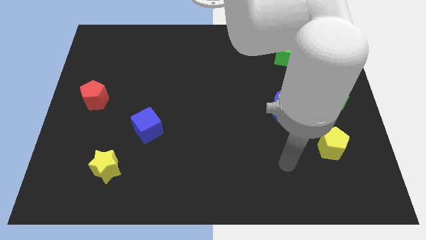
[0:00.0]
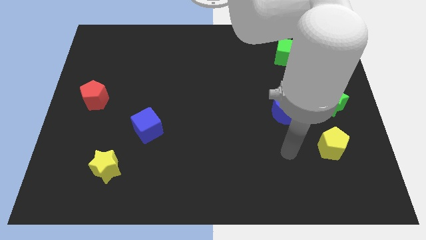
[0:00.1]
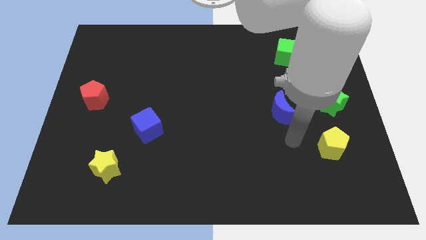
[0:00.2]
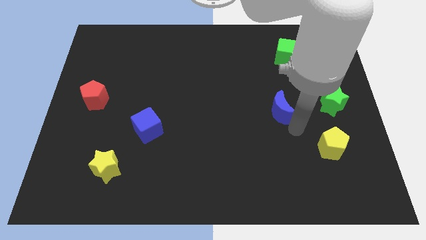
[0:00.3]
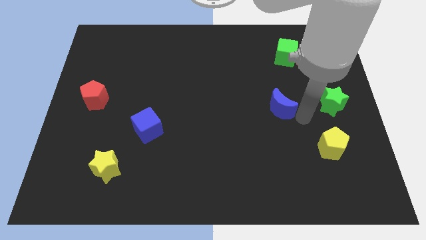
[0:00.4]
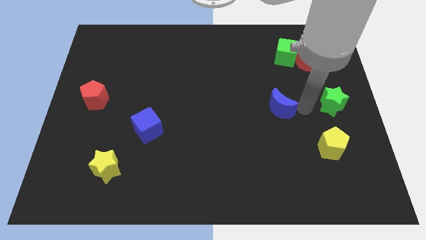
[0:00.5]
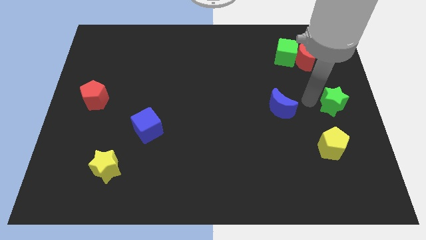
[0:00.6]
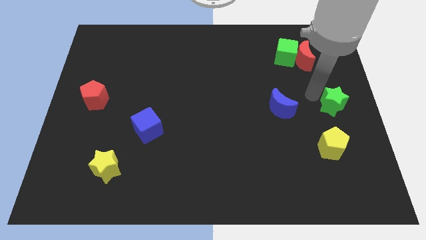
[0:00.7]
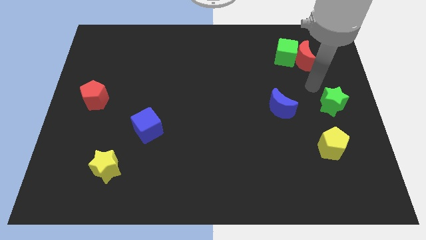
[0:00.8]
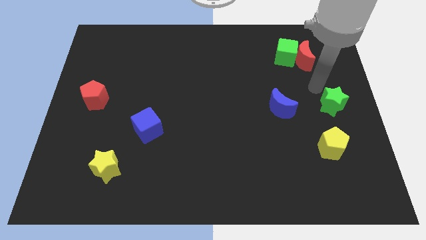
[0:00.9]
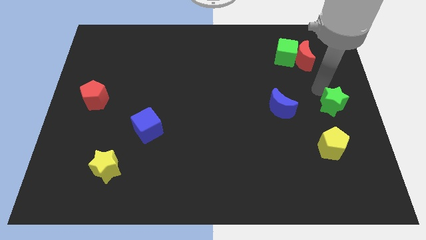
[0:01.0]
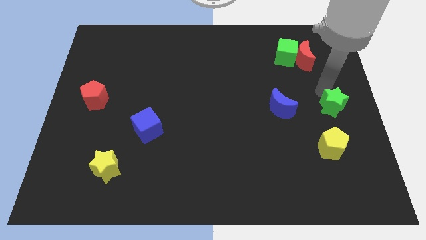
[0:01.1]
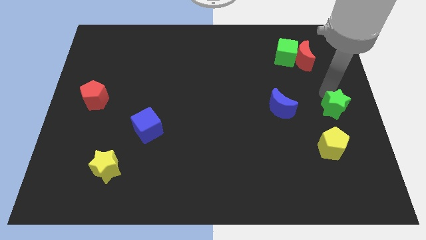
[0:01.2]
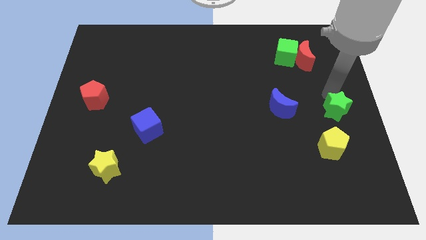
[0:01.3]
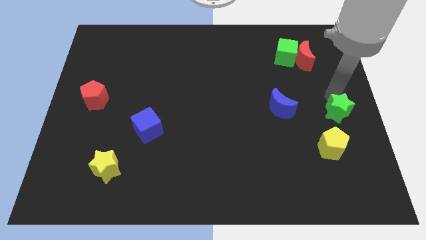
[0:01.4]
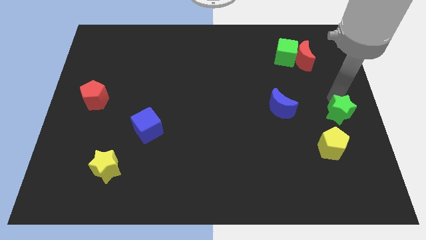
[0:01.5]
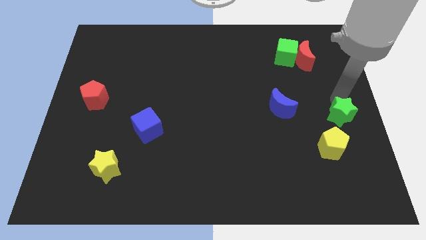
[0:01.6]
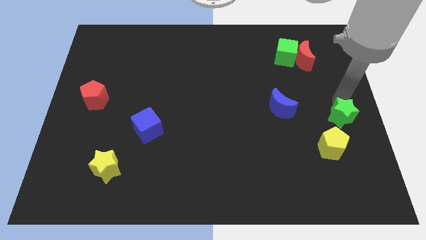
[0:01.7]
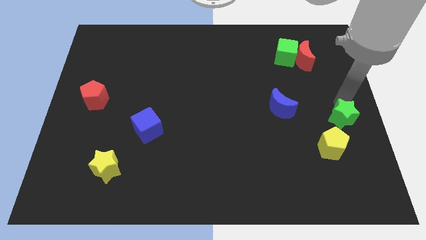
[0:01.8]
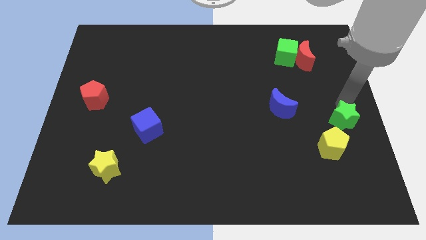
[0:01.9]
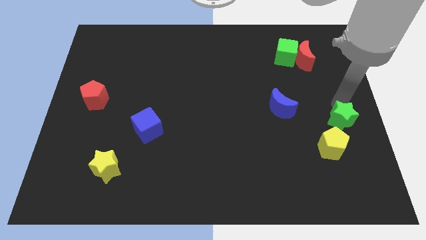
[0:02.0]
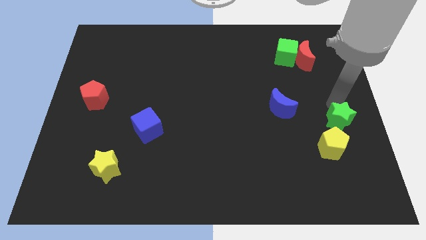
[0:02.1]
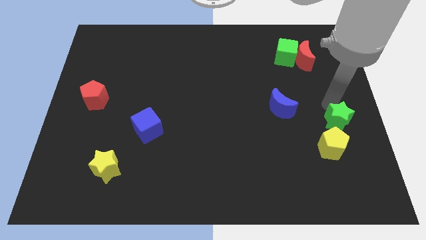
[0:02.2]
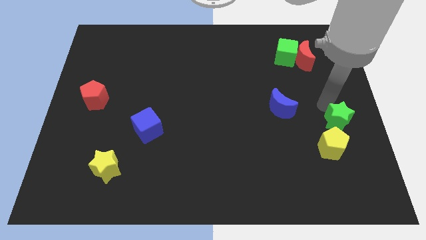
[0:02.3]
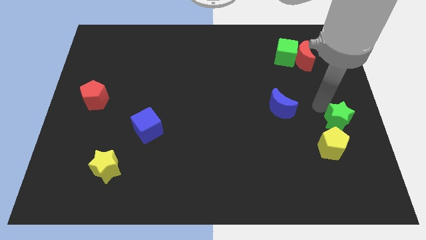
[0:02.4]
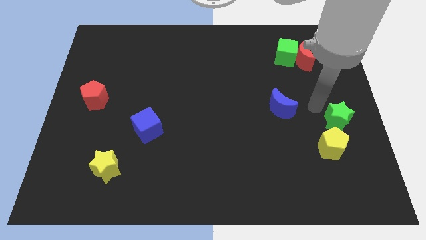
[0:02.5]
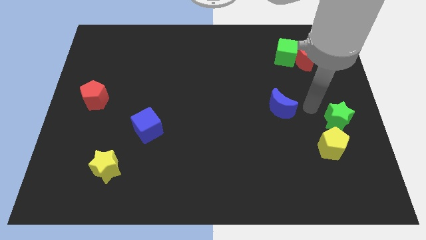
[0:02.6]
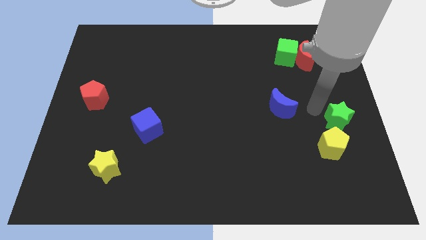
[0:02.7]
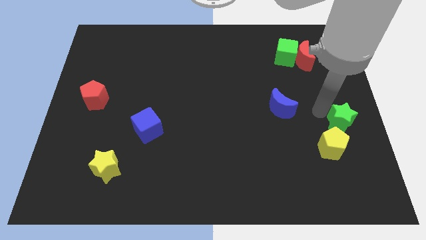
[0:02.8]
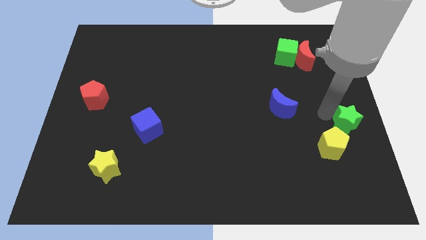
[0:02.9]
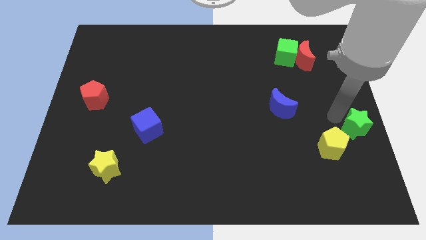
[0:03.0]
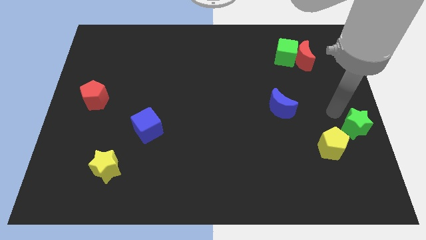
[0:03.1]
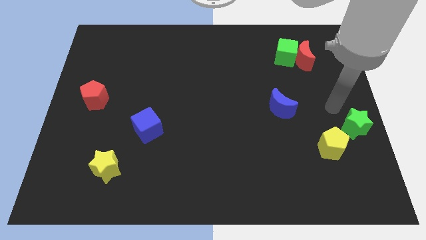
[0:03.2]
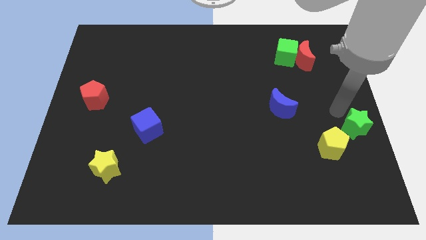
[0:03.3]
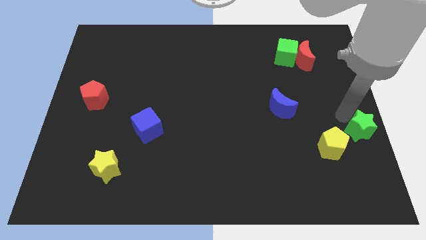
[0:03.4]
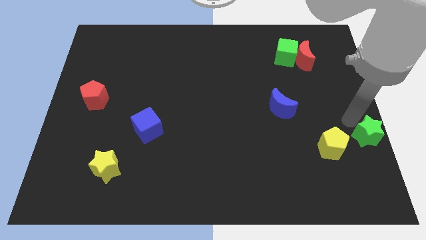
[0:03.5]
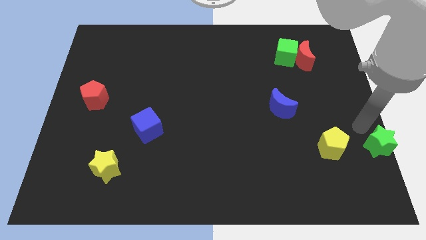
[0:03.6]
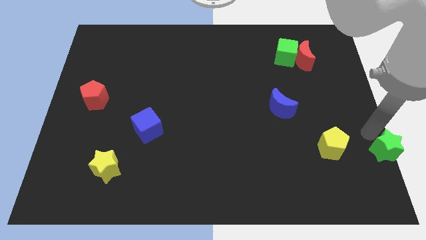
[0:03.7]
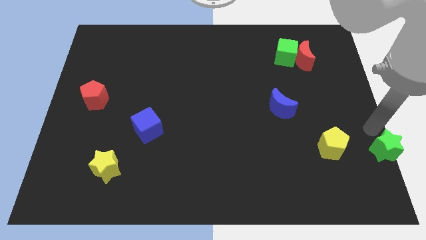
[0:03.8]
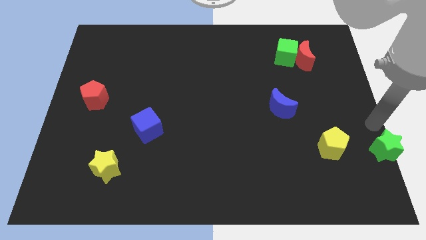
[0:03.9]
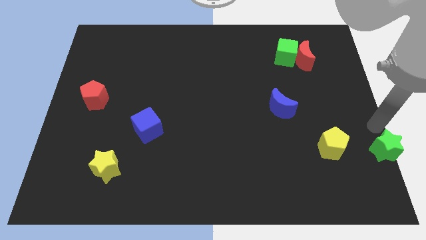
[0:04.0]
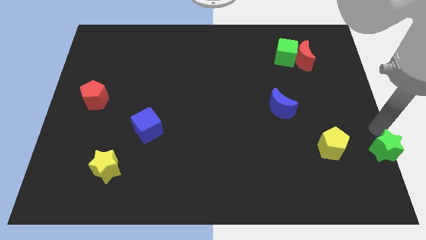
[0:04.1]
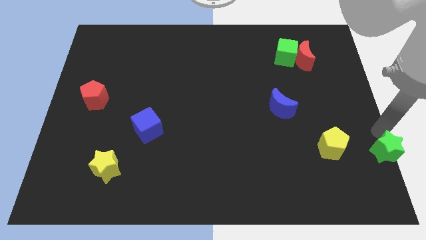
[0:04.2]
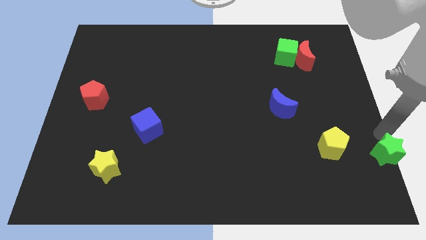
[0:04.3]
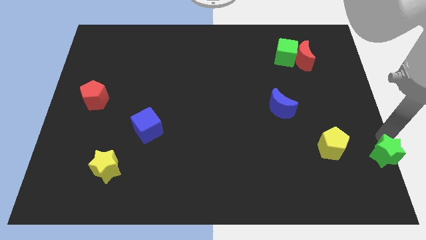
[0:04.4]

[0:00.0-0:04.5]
put the green star to the bottom right of the board

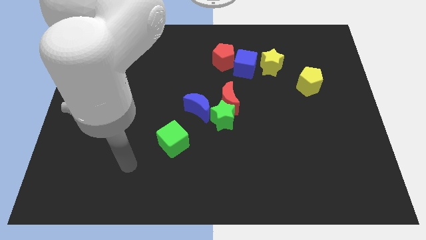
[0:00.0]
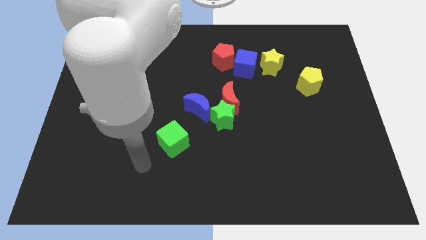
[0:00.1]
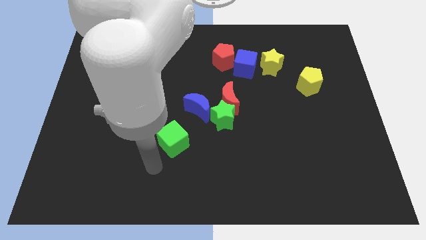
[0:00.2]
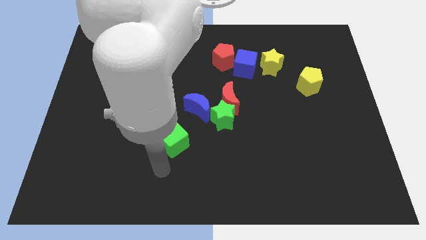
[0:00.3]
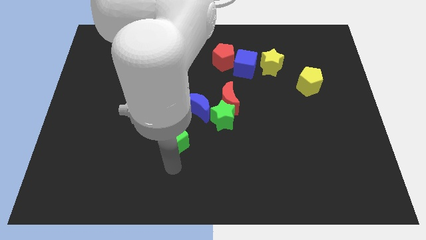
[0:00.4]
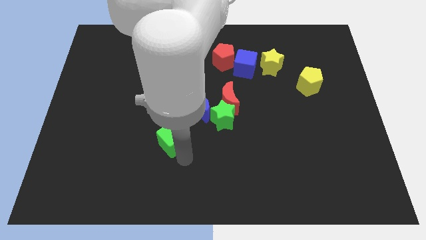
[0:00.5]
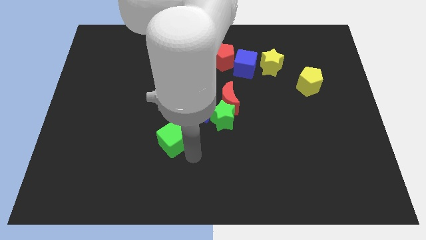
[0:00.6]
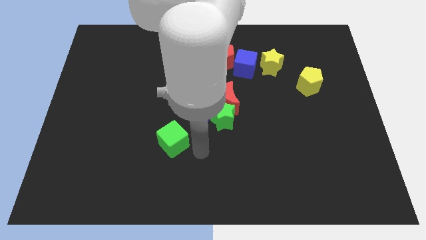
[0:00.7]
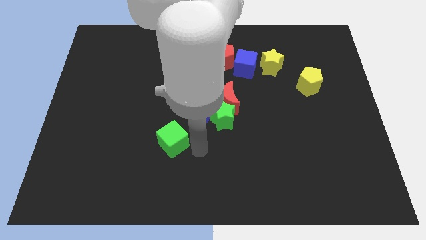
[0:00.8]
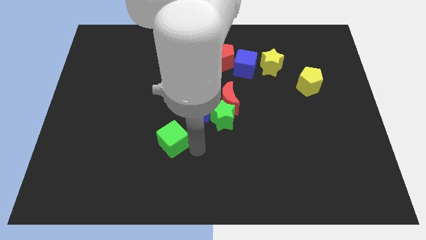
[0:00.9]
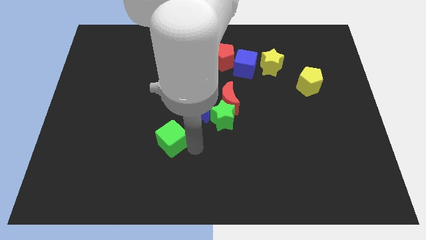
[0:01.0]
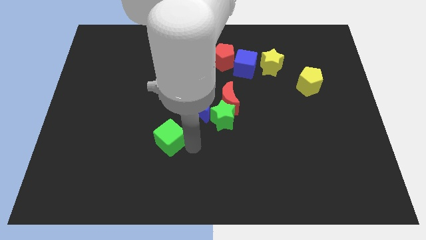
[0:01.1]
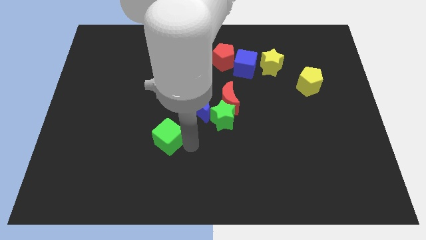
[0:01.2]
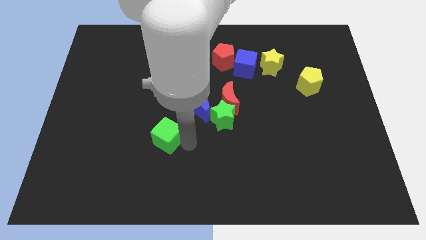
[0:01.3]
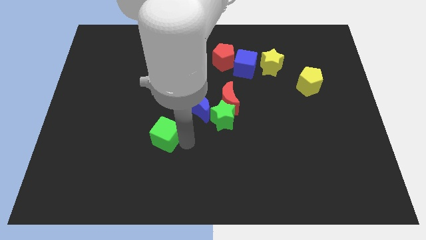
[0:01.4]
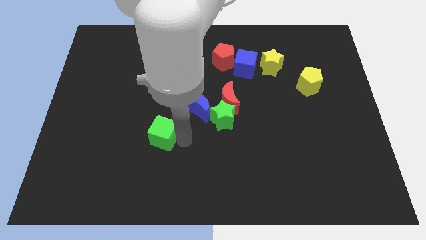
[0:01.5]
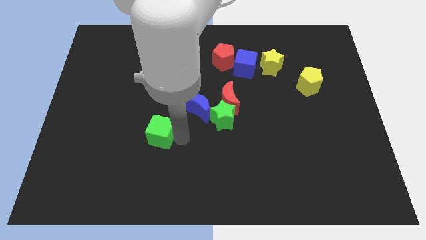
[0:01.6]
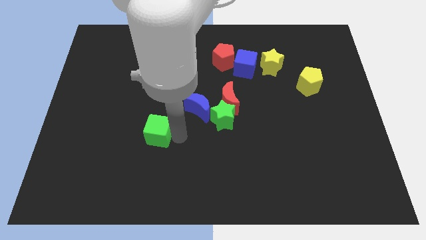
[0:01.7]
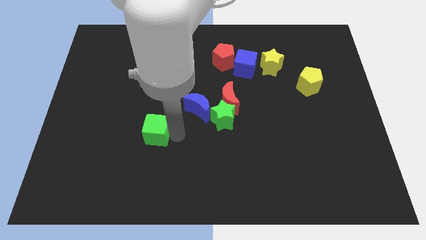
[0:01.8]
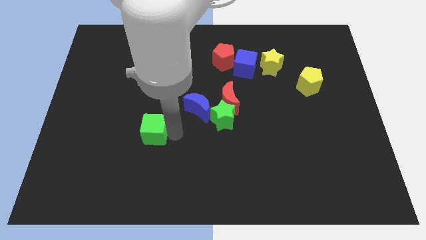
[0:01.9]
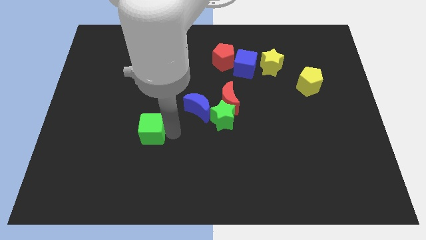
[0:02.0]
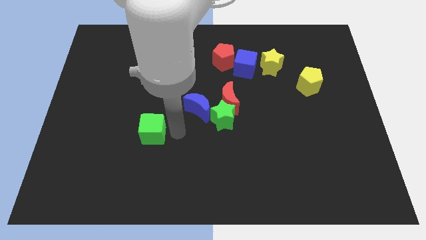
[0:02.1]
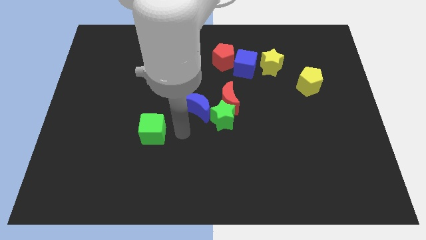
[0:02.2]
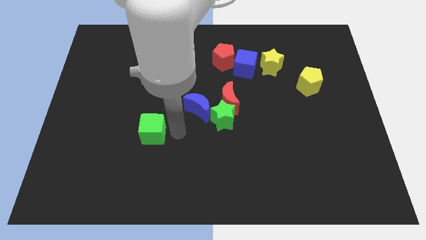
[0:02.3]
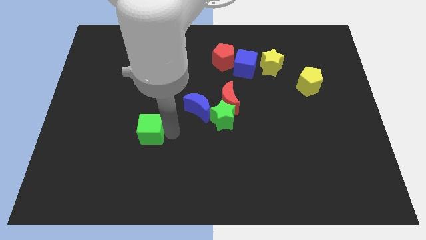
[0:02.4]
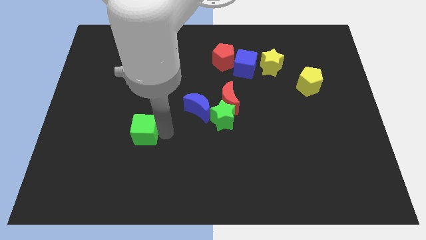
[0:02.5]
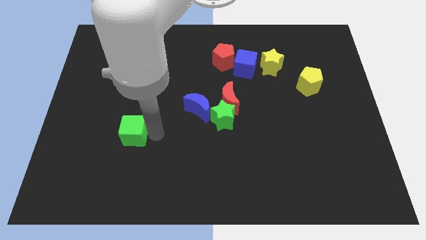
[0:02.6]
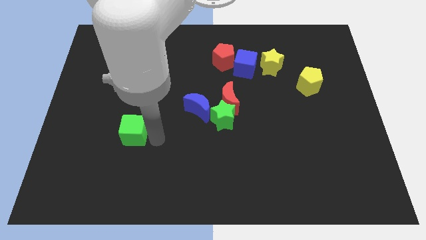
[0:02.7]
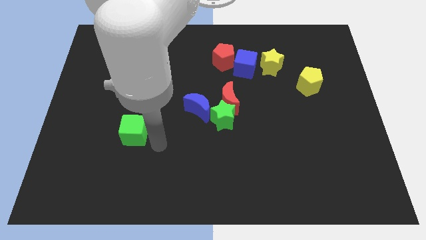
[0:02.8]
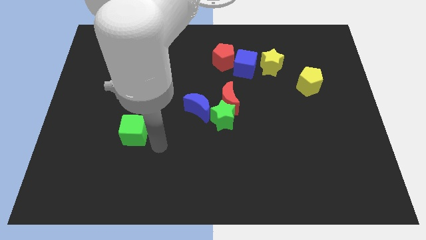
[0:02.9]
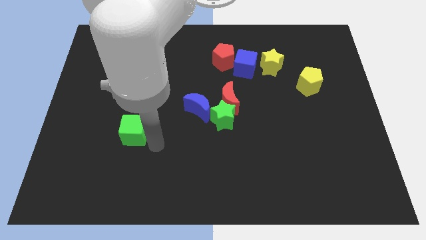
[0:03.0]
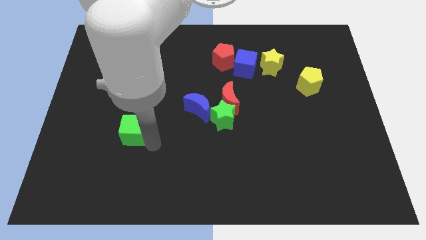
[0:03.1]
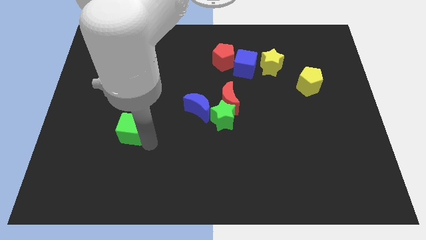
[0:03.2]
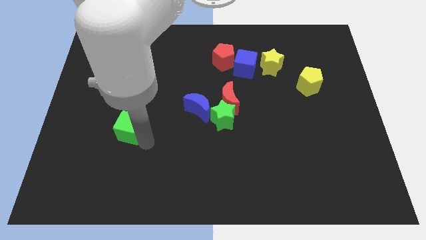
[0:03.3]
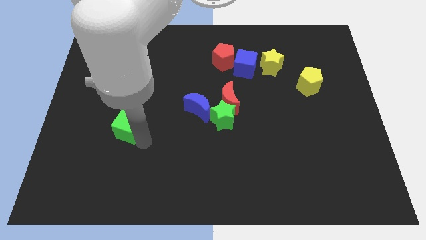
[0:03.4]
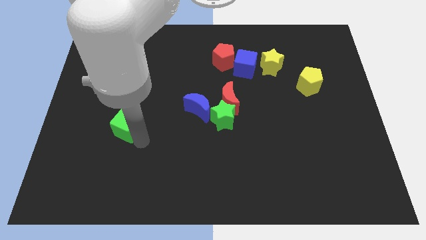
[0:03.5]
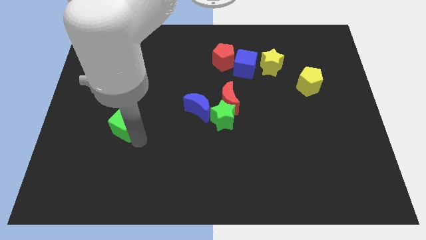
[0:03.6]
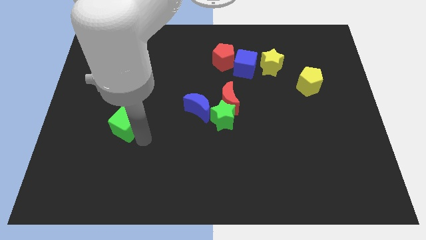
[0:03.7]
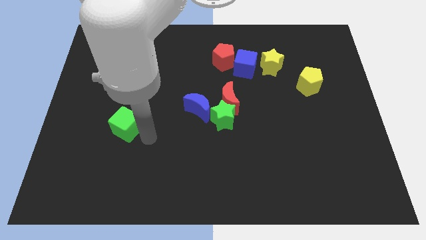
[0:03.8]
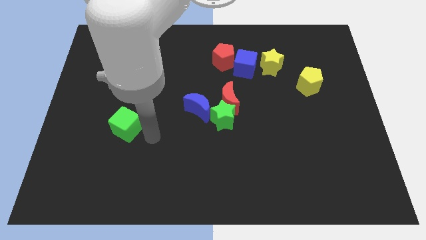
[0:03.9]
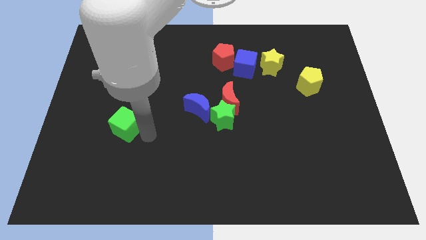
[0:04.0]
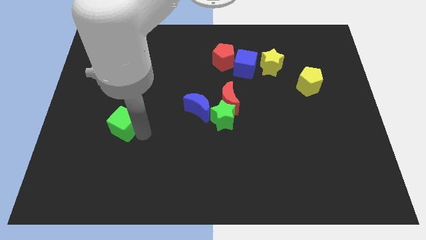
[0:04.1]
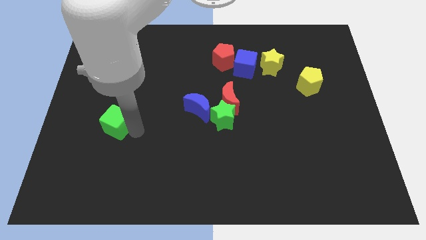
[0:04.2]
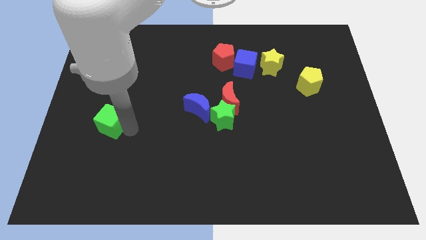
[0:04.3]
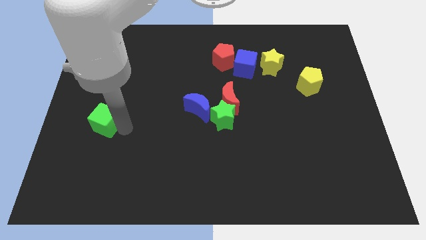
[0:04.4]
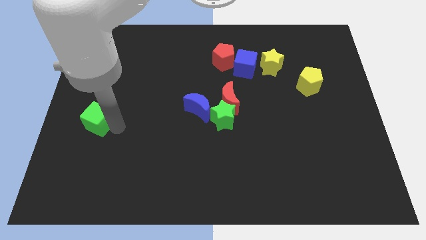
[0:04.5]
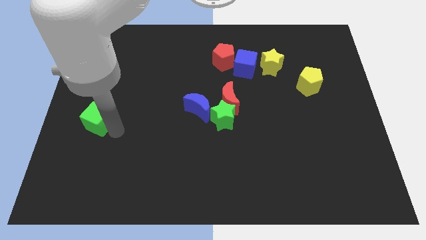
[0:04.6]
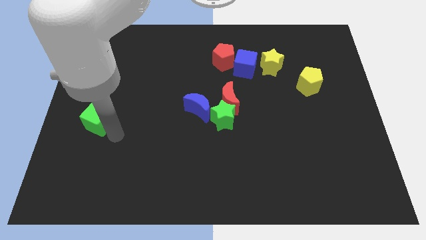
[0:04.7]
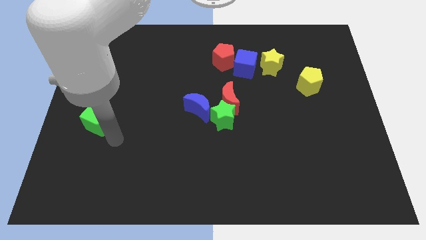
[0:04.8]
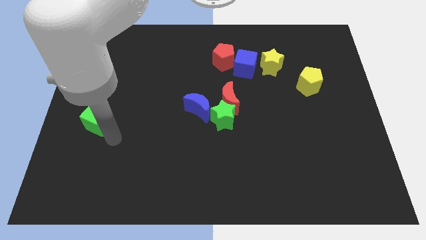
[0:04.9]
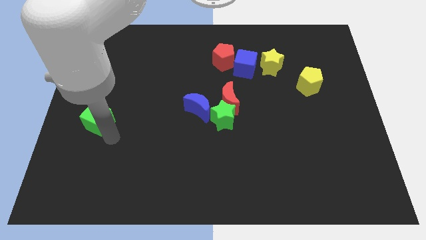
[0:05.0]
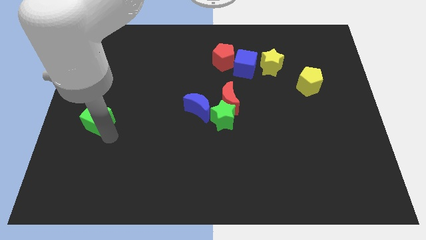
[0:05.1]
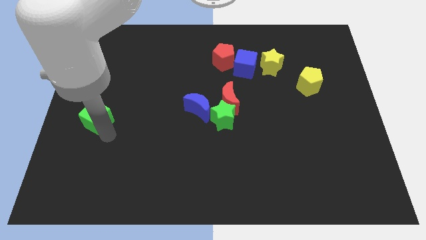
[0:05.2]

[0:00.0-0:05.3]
slide the green cube to the left side of the board
